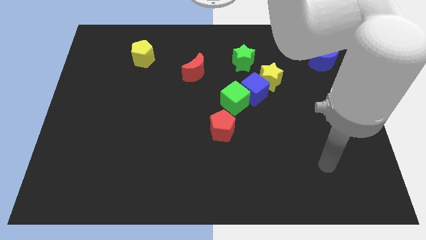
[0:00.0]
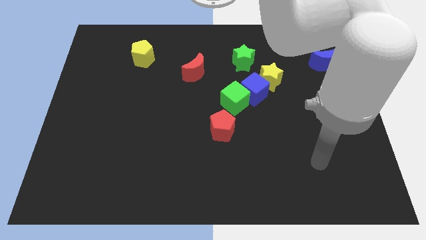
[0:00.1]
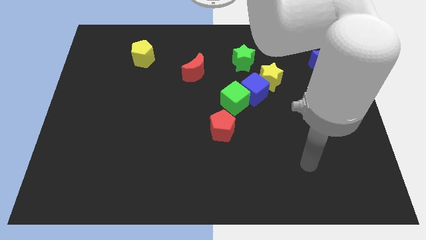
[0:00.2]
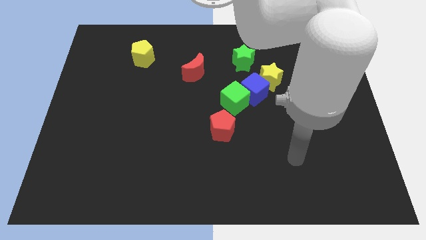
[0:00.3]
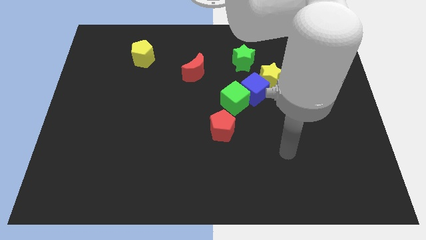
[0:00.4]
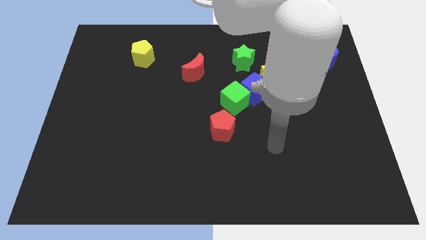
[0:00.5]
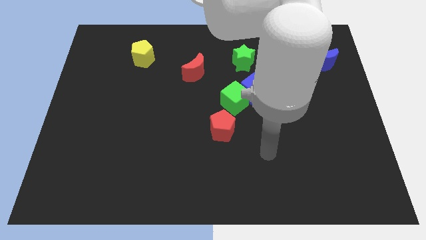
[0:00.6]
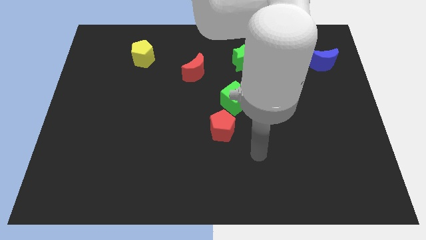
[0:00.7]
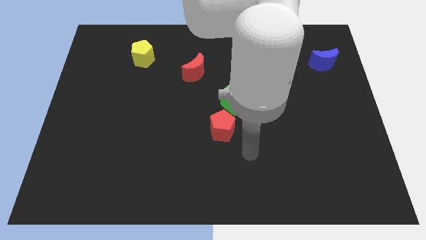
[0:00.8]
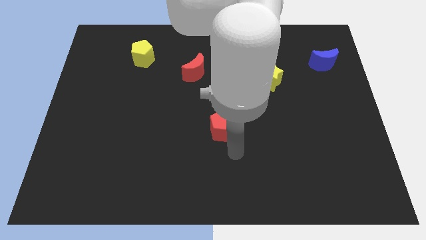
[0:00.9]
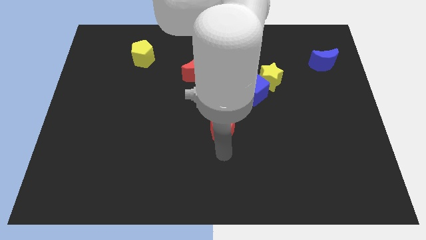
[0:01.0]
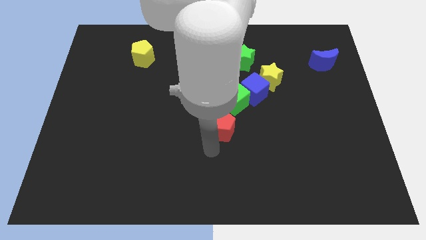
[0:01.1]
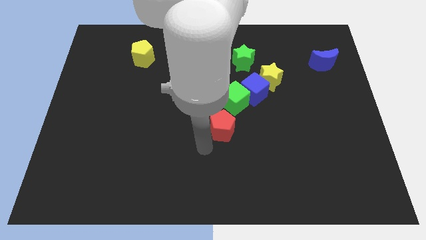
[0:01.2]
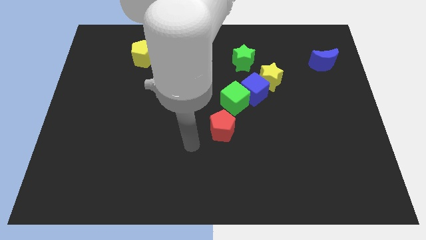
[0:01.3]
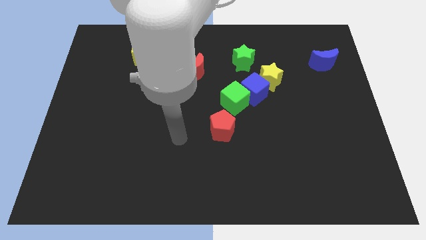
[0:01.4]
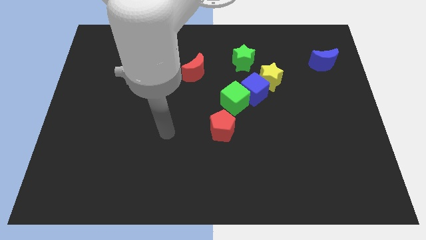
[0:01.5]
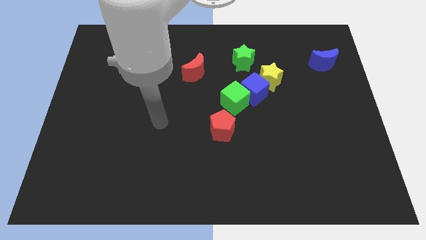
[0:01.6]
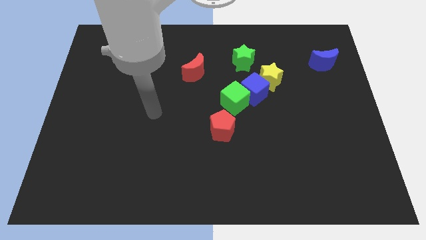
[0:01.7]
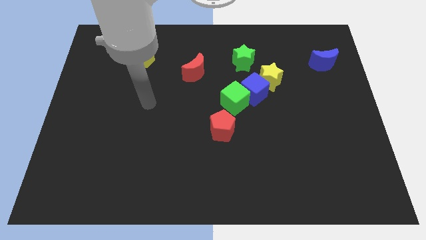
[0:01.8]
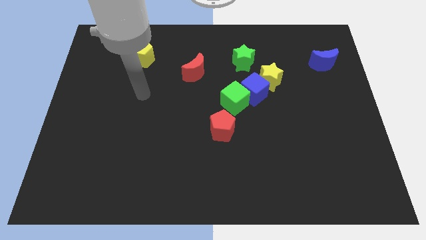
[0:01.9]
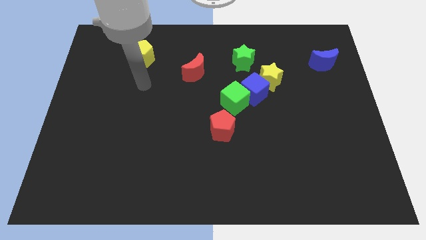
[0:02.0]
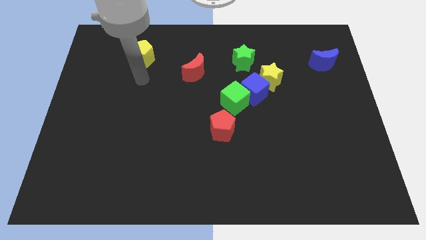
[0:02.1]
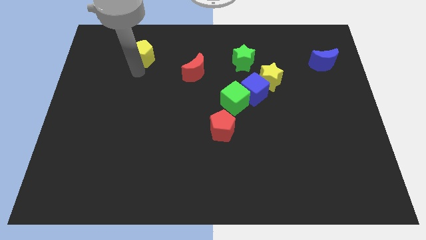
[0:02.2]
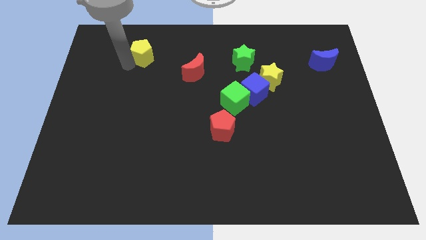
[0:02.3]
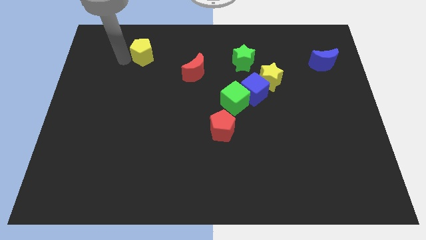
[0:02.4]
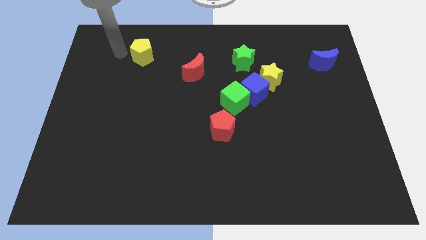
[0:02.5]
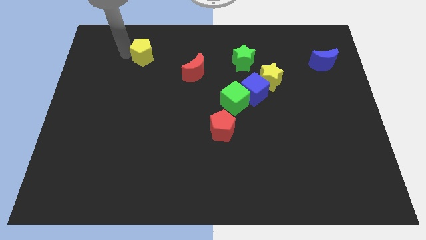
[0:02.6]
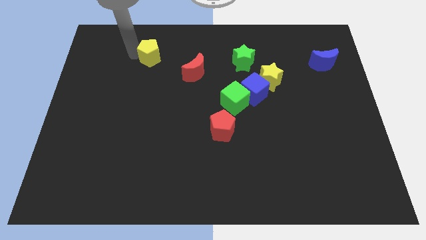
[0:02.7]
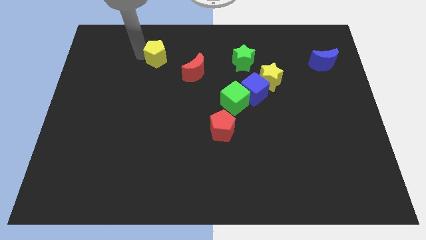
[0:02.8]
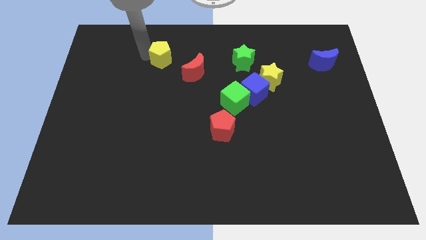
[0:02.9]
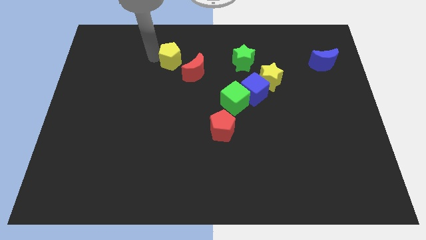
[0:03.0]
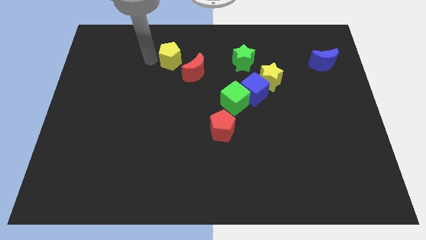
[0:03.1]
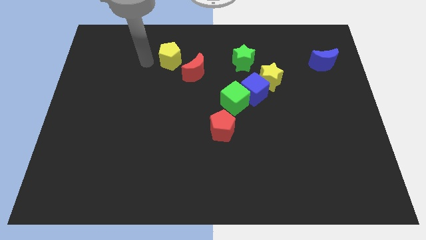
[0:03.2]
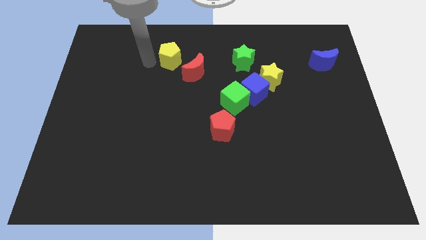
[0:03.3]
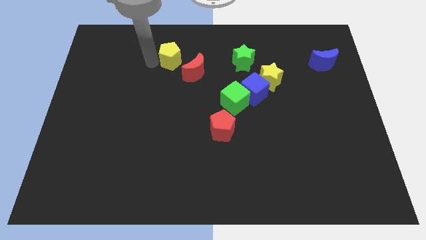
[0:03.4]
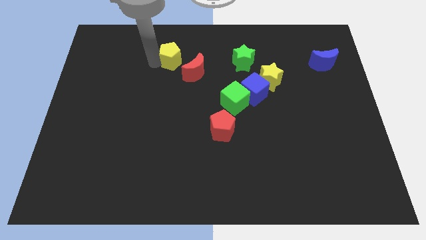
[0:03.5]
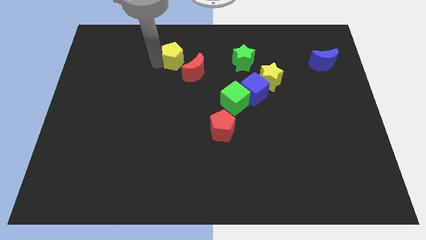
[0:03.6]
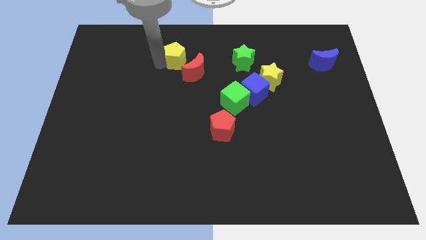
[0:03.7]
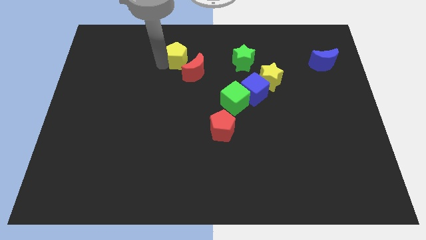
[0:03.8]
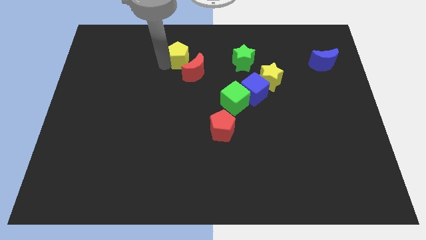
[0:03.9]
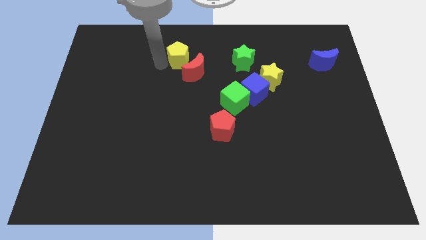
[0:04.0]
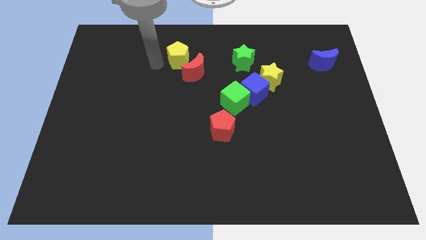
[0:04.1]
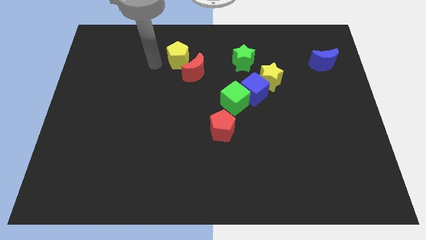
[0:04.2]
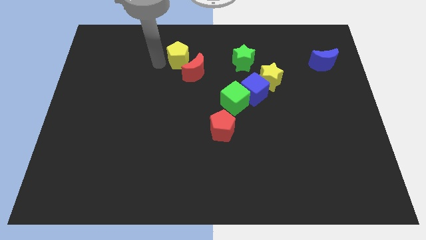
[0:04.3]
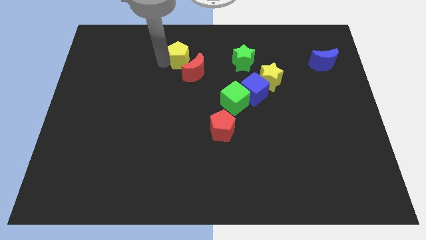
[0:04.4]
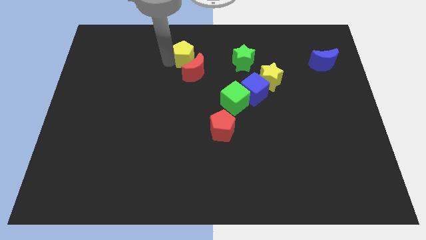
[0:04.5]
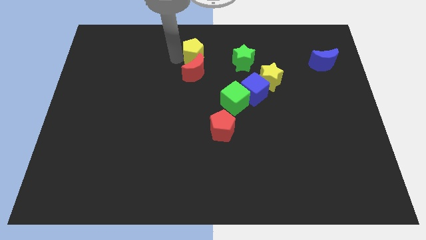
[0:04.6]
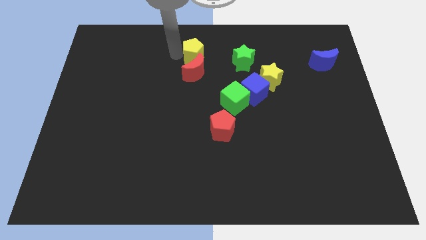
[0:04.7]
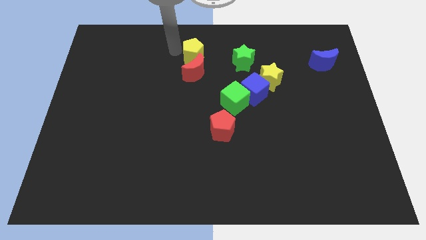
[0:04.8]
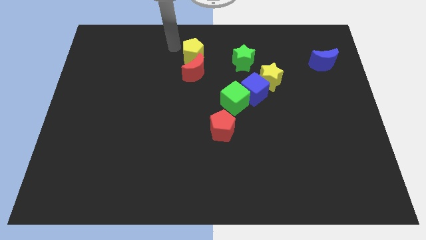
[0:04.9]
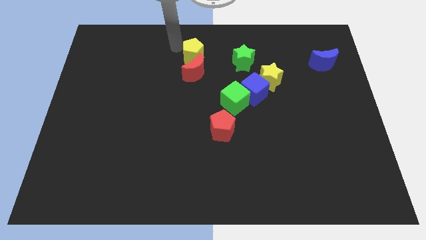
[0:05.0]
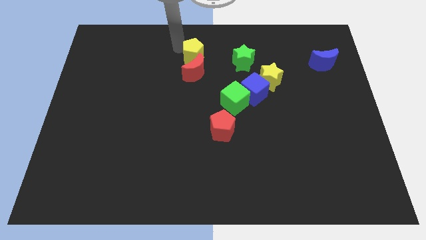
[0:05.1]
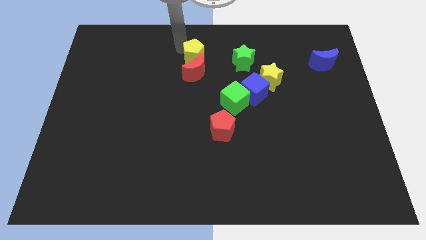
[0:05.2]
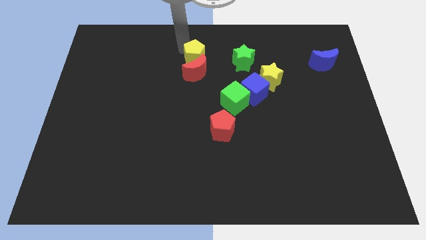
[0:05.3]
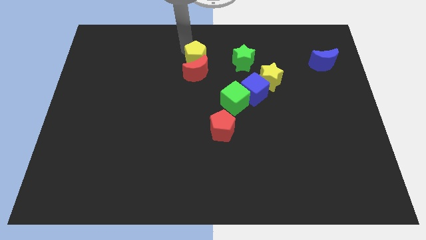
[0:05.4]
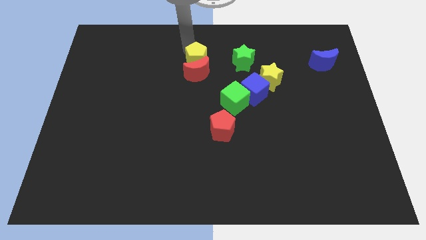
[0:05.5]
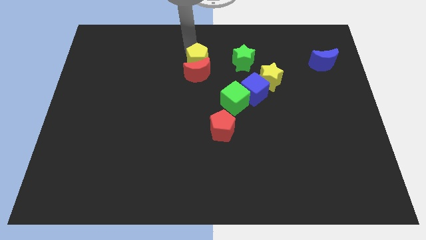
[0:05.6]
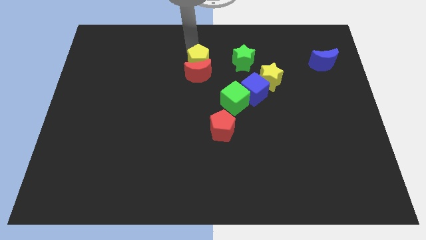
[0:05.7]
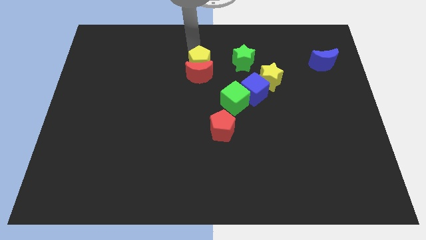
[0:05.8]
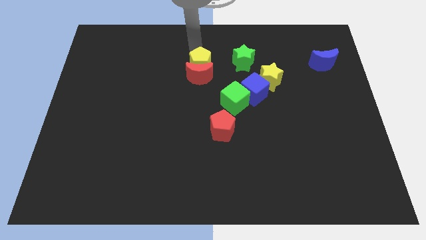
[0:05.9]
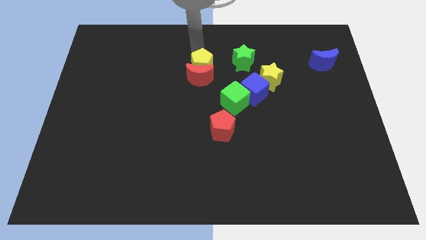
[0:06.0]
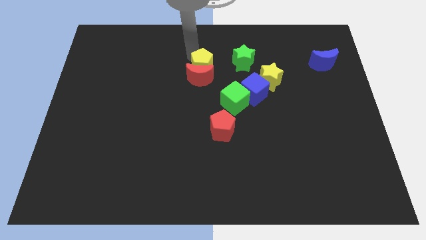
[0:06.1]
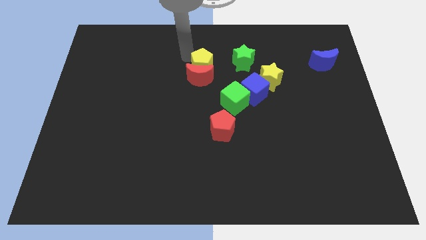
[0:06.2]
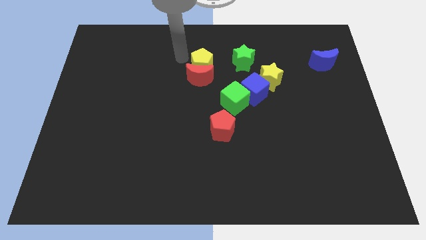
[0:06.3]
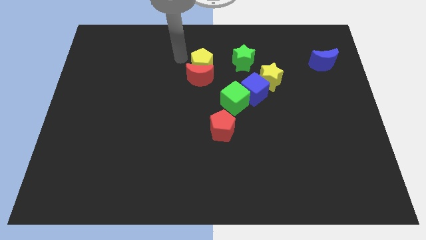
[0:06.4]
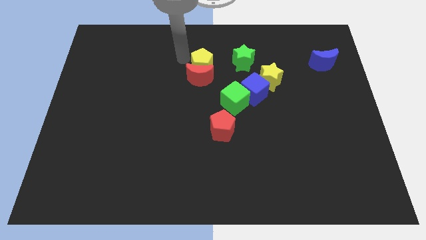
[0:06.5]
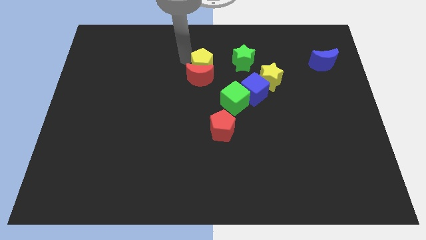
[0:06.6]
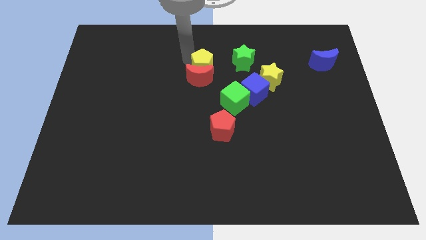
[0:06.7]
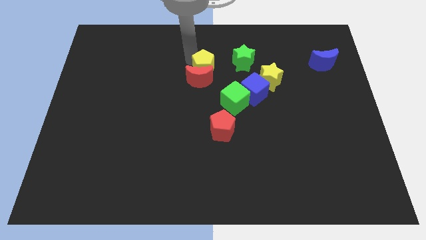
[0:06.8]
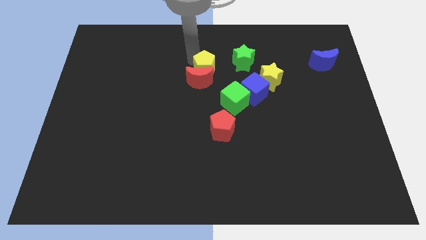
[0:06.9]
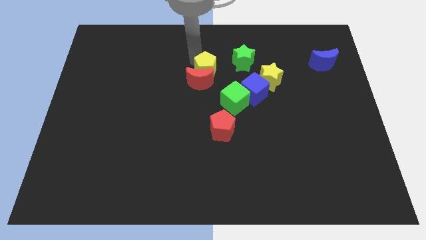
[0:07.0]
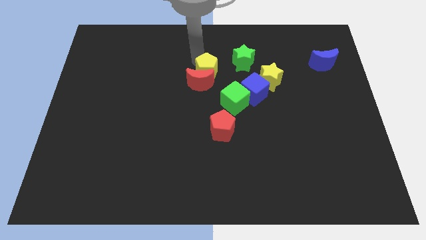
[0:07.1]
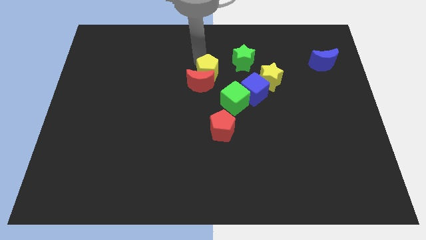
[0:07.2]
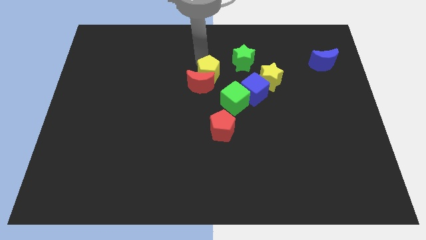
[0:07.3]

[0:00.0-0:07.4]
put the yellow pentagon to the left side of the yellow star
